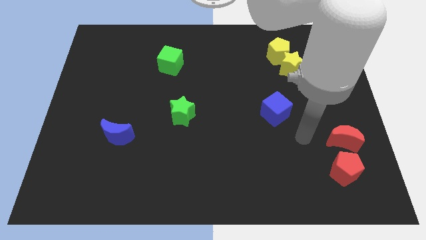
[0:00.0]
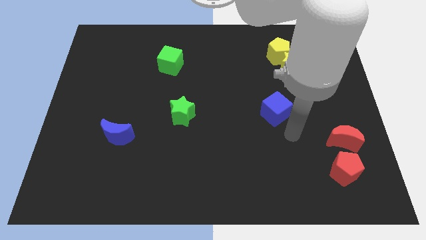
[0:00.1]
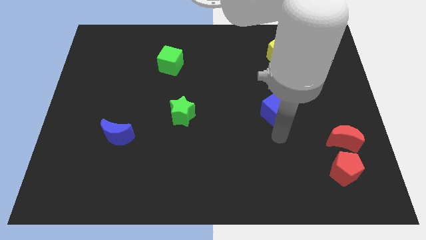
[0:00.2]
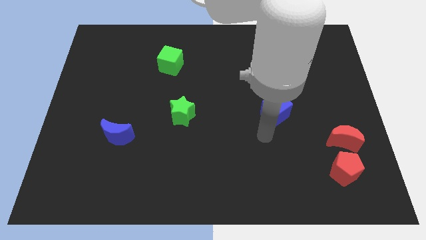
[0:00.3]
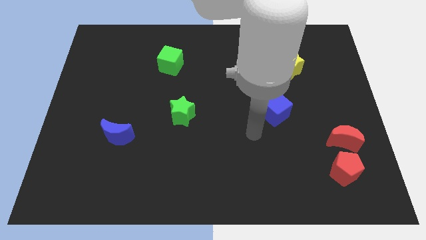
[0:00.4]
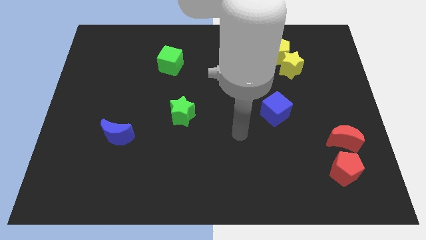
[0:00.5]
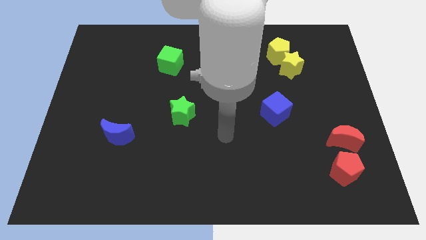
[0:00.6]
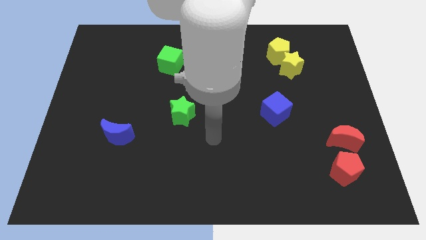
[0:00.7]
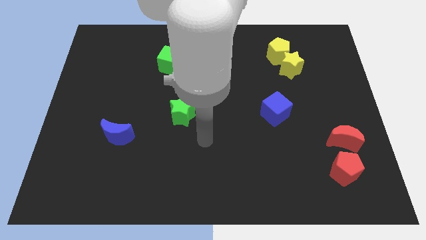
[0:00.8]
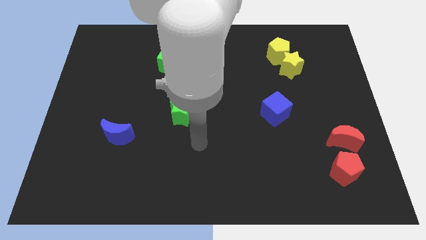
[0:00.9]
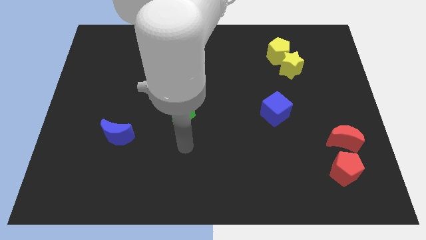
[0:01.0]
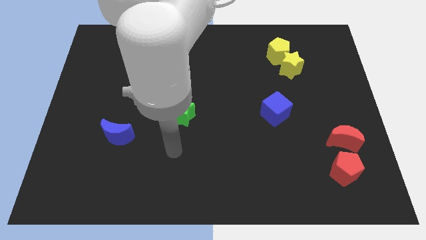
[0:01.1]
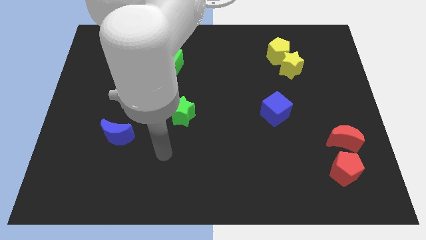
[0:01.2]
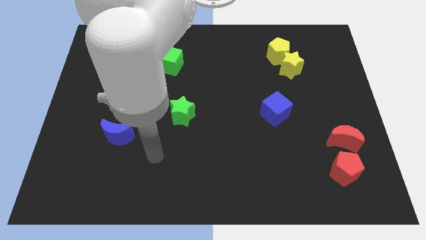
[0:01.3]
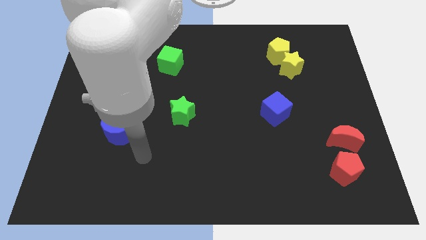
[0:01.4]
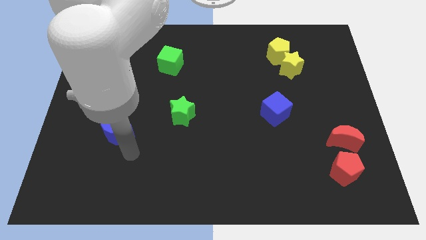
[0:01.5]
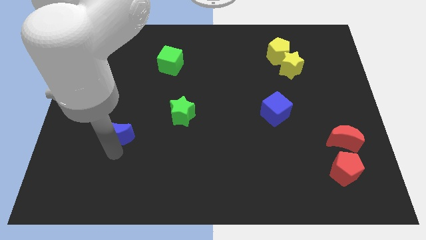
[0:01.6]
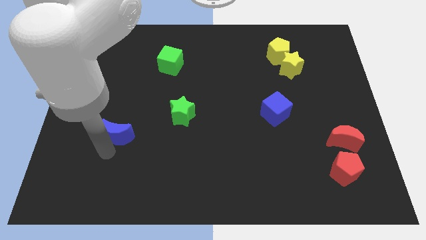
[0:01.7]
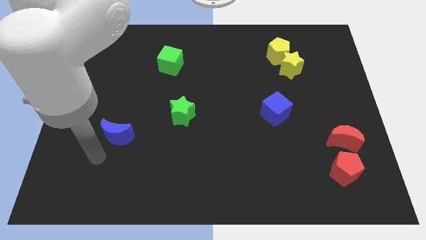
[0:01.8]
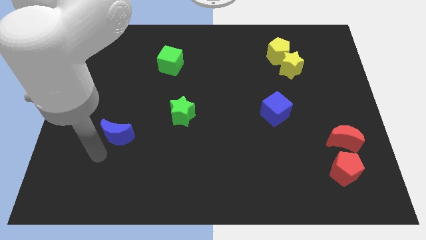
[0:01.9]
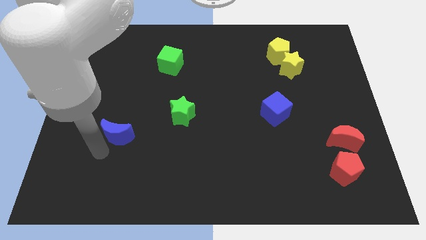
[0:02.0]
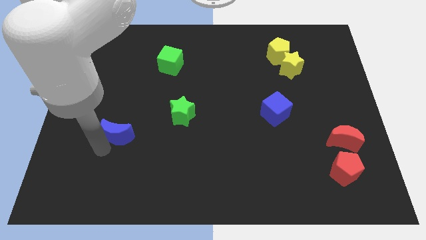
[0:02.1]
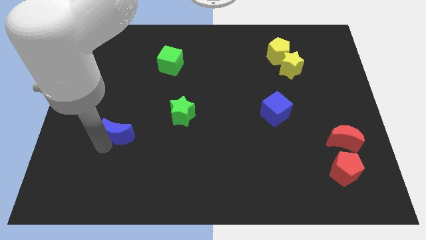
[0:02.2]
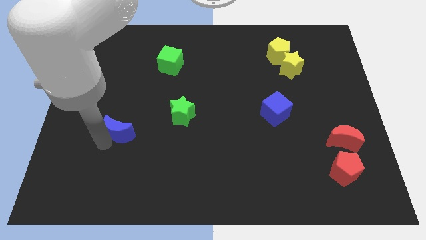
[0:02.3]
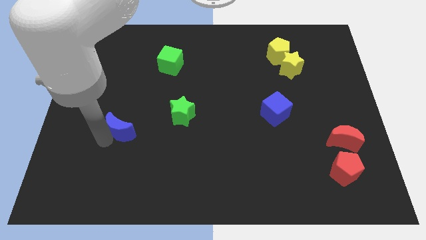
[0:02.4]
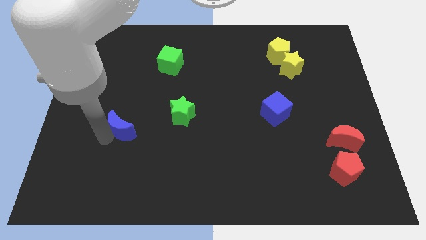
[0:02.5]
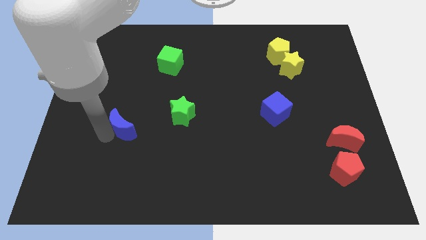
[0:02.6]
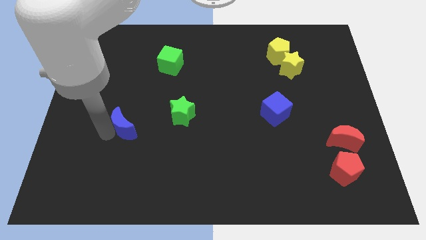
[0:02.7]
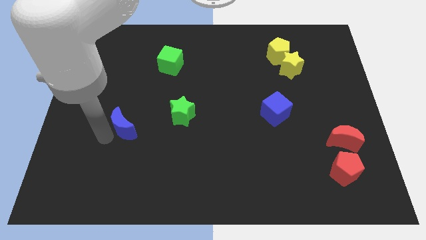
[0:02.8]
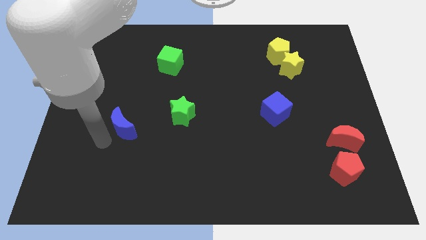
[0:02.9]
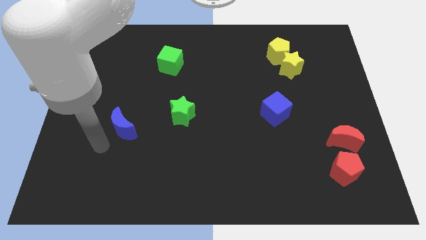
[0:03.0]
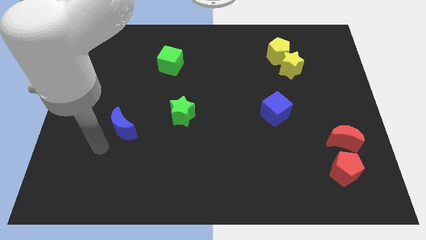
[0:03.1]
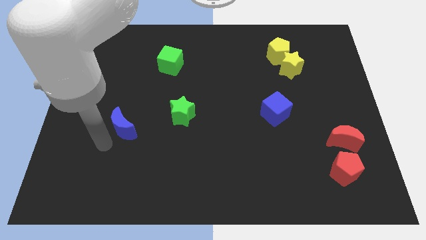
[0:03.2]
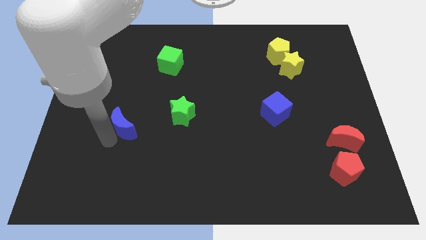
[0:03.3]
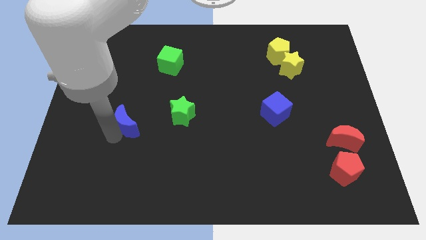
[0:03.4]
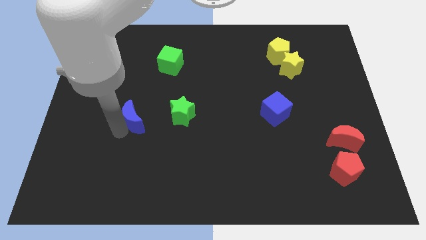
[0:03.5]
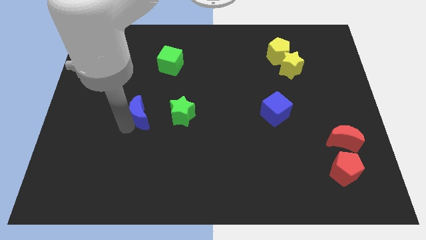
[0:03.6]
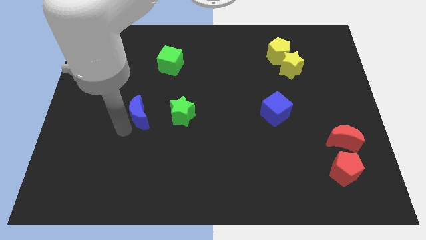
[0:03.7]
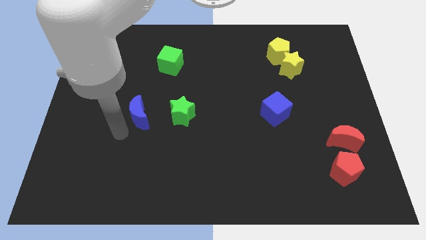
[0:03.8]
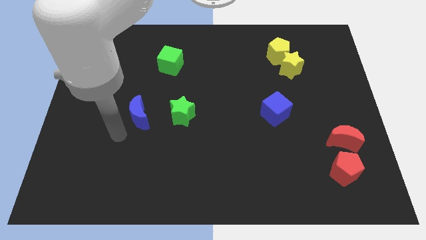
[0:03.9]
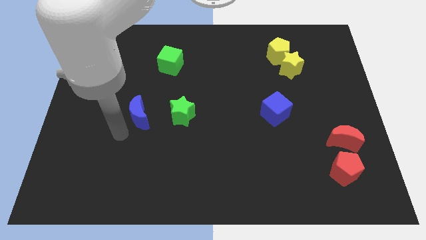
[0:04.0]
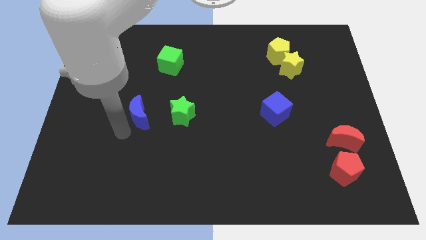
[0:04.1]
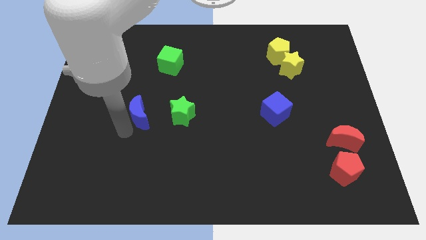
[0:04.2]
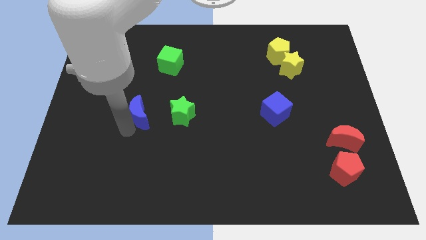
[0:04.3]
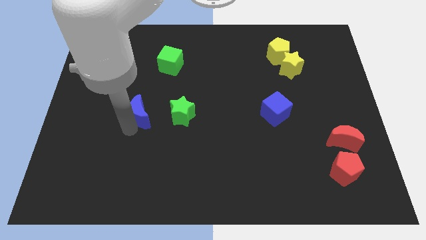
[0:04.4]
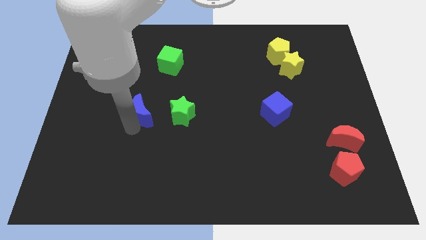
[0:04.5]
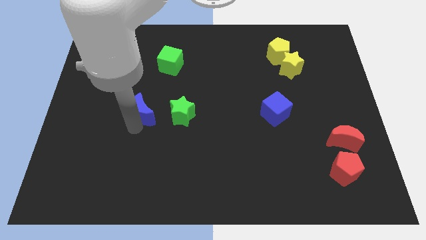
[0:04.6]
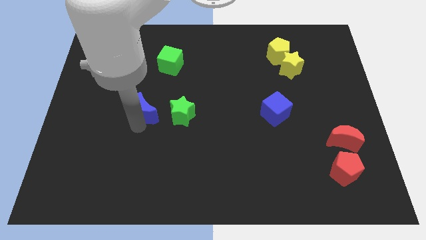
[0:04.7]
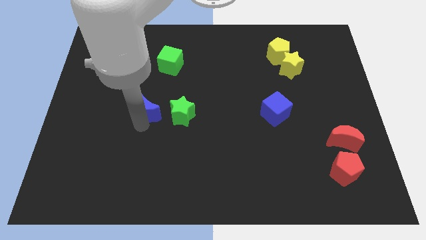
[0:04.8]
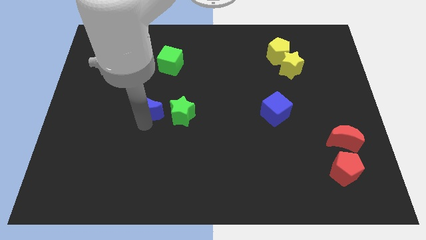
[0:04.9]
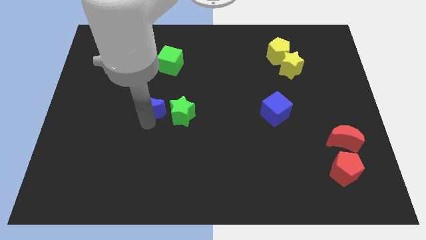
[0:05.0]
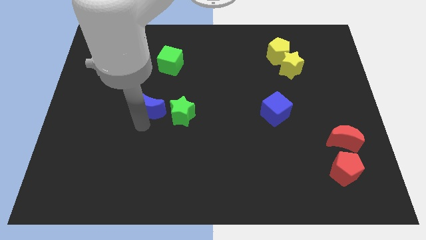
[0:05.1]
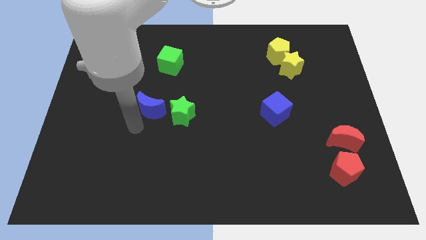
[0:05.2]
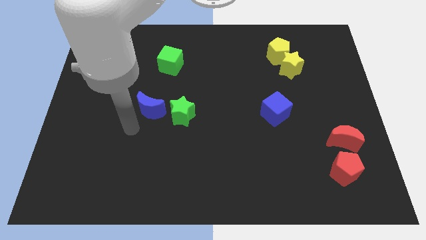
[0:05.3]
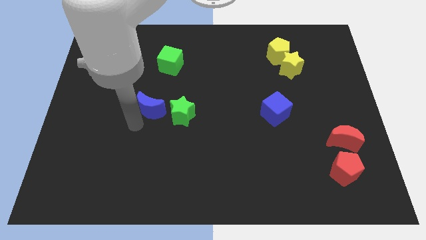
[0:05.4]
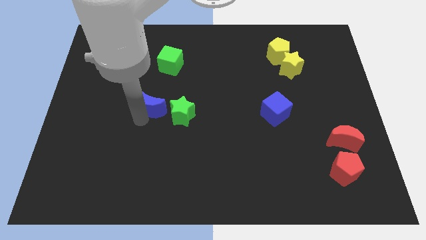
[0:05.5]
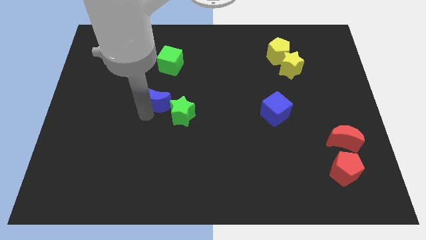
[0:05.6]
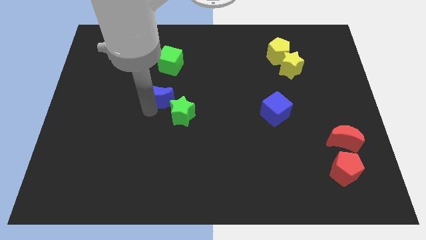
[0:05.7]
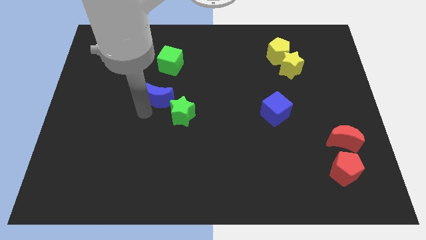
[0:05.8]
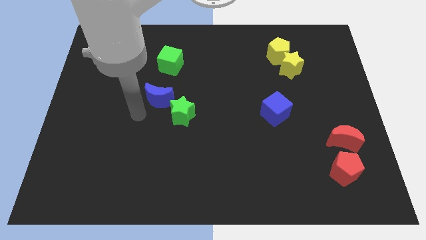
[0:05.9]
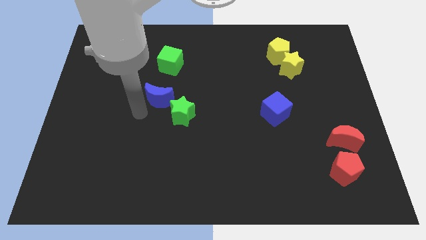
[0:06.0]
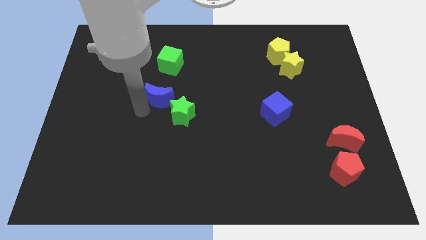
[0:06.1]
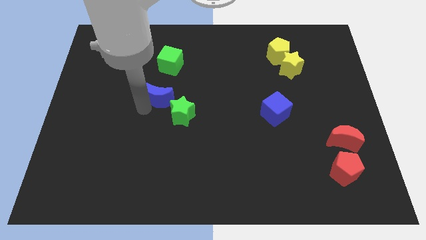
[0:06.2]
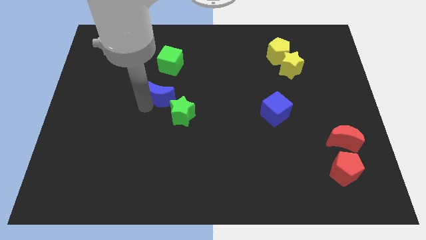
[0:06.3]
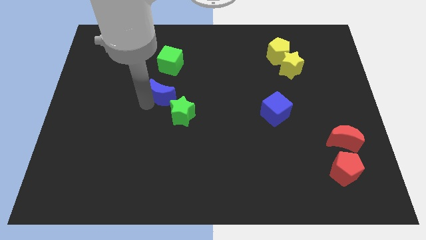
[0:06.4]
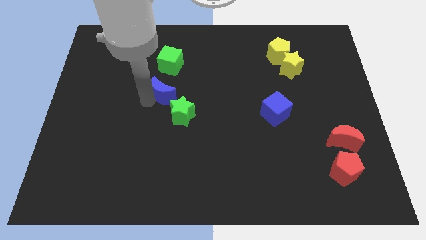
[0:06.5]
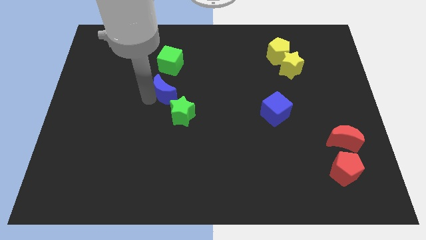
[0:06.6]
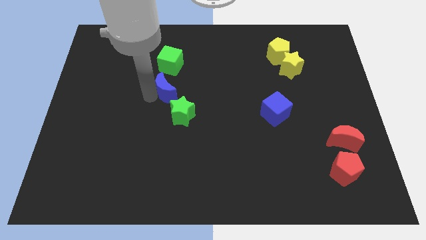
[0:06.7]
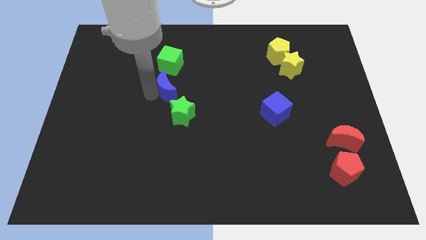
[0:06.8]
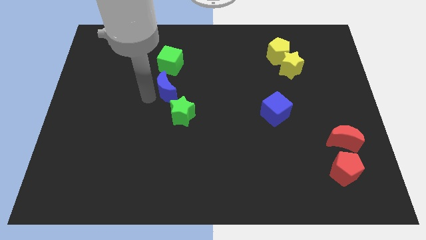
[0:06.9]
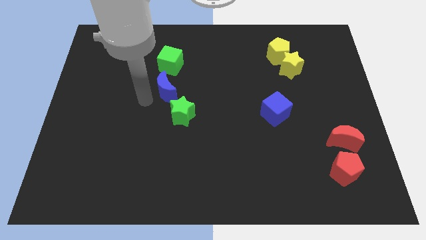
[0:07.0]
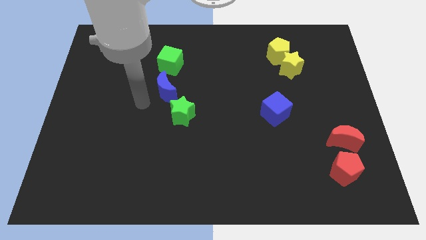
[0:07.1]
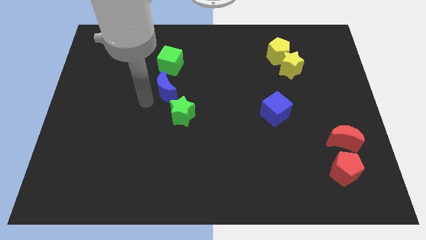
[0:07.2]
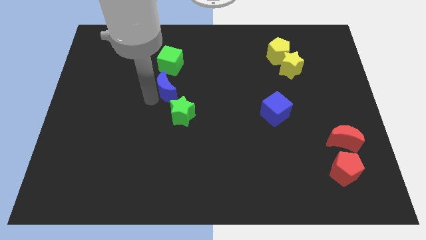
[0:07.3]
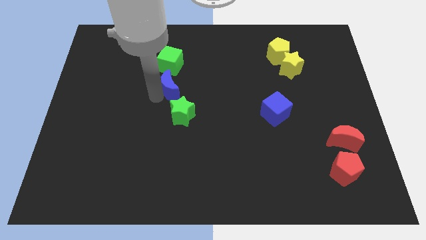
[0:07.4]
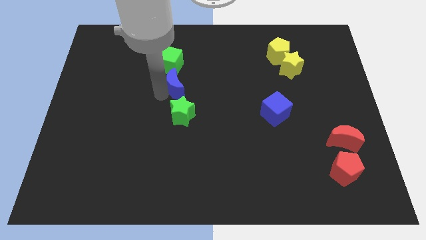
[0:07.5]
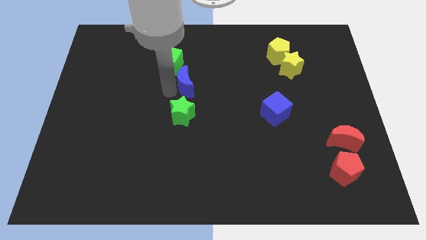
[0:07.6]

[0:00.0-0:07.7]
push the blue moon up and to the right diagonally

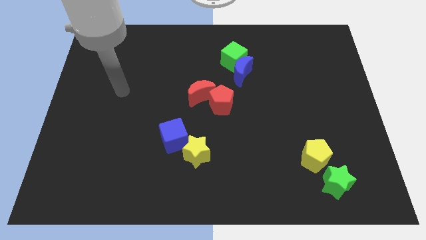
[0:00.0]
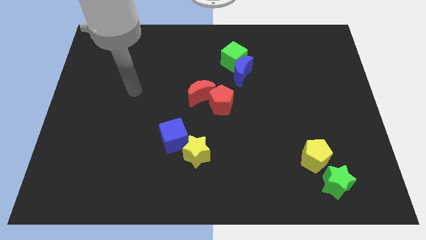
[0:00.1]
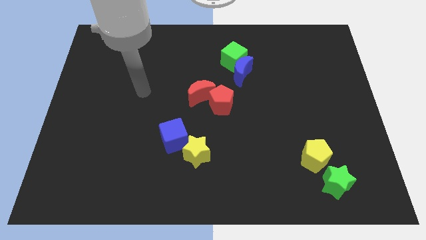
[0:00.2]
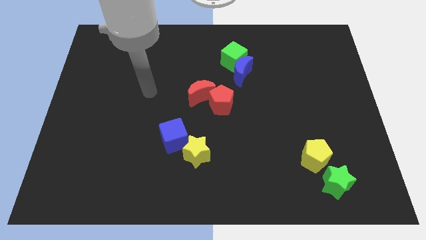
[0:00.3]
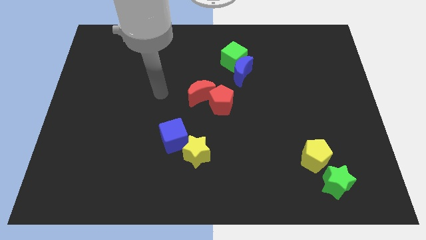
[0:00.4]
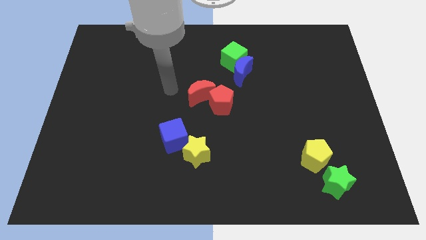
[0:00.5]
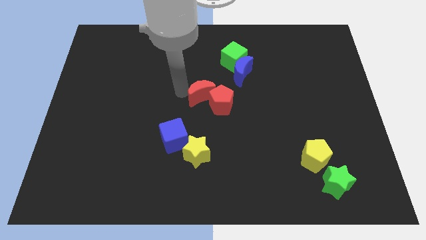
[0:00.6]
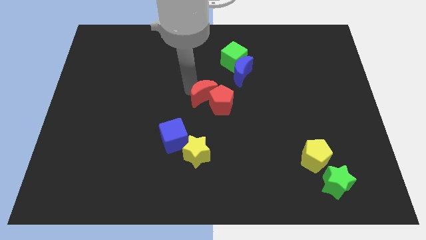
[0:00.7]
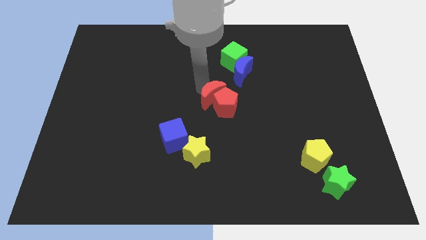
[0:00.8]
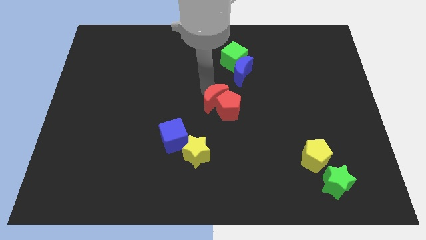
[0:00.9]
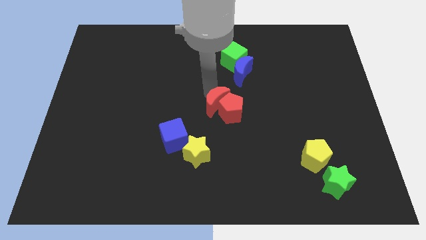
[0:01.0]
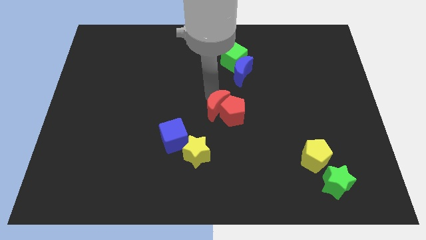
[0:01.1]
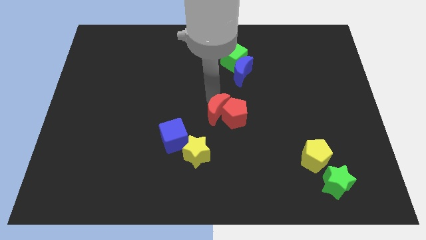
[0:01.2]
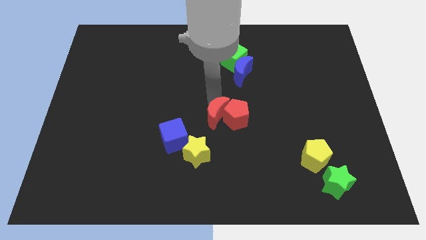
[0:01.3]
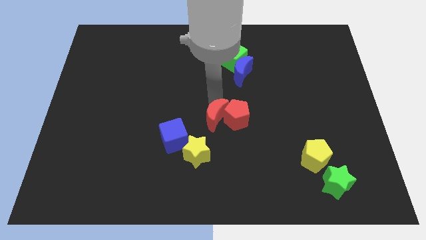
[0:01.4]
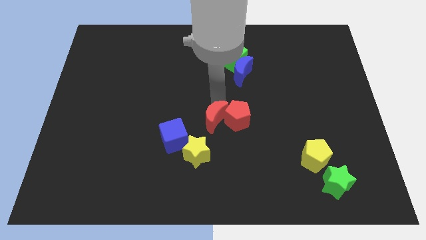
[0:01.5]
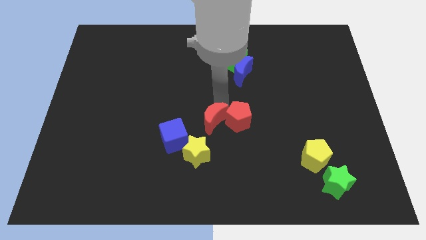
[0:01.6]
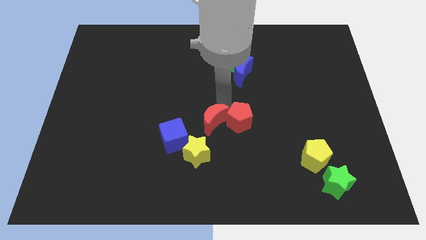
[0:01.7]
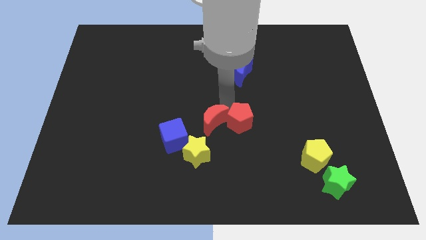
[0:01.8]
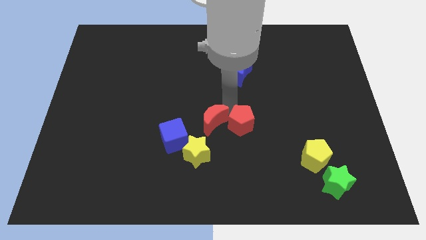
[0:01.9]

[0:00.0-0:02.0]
slightly move the red pentagon diagonally downwards and right
